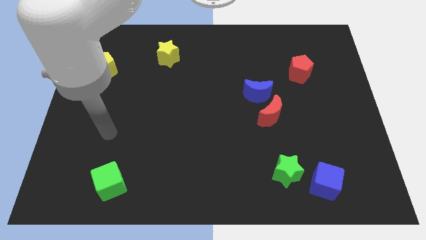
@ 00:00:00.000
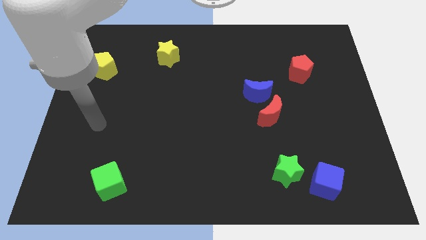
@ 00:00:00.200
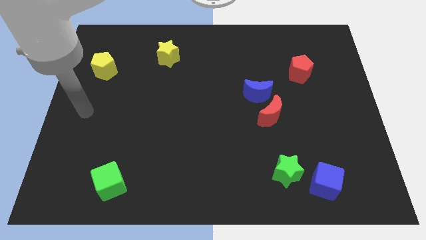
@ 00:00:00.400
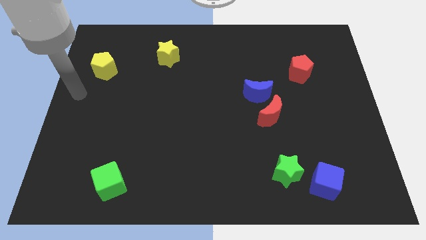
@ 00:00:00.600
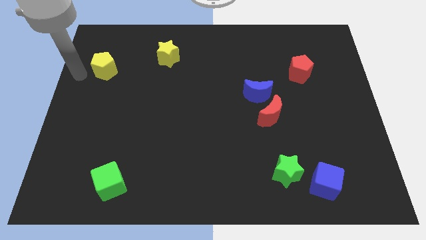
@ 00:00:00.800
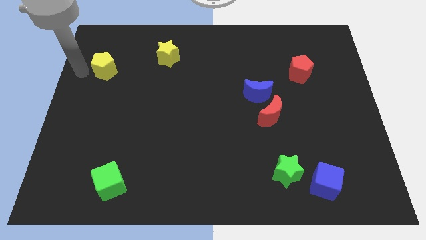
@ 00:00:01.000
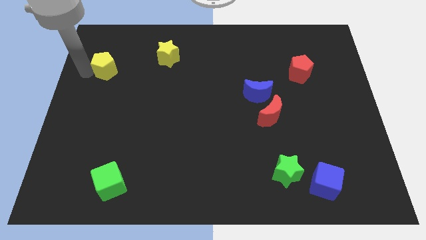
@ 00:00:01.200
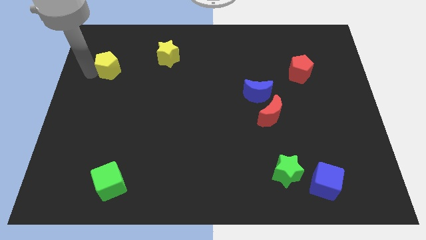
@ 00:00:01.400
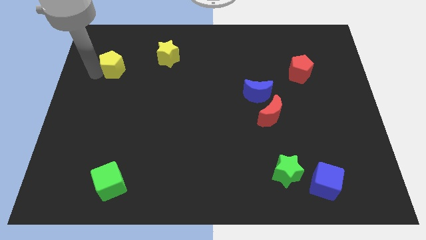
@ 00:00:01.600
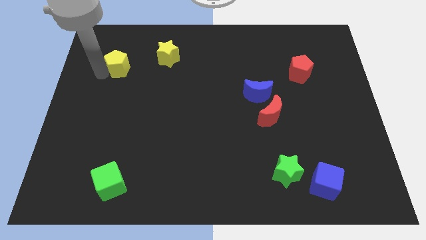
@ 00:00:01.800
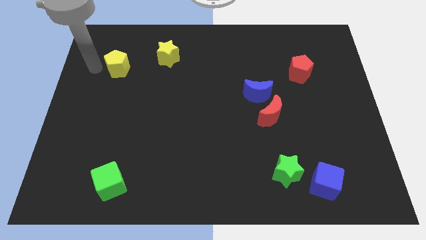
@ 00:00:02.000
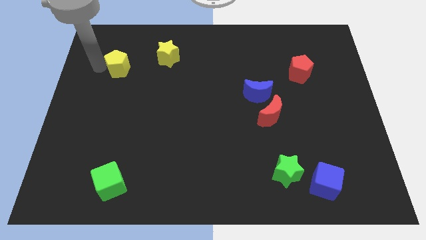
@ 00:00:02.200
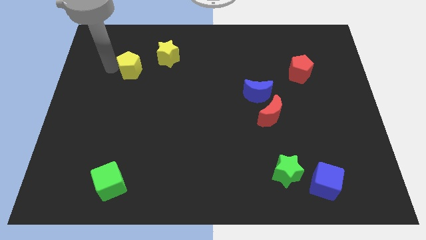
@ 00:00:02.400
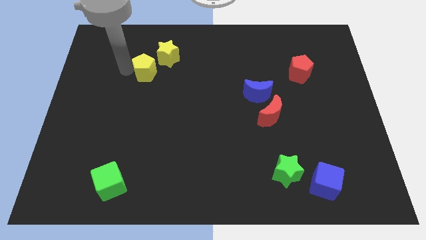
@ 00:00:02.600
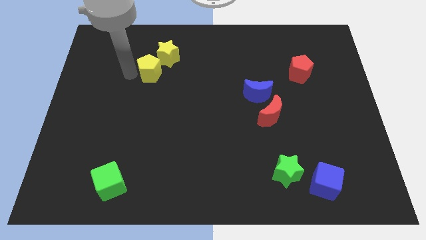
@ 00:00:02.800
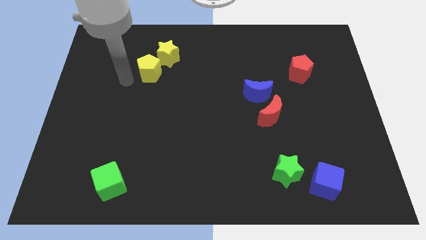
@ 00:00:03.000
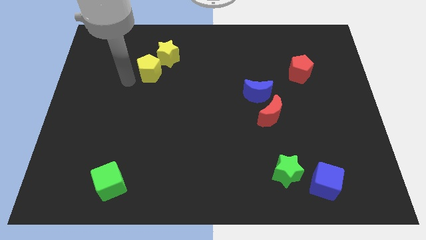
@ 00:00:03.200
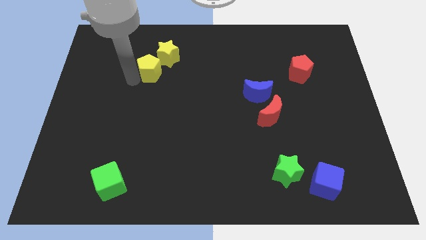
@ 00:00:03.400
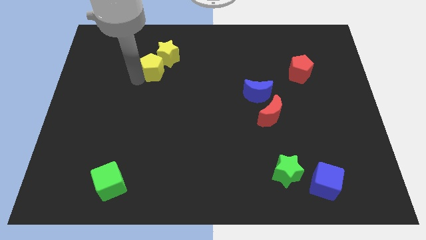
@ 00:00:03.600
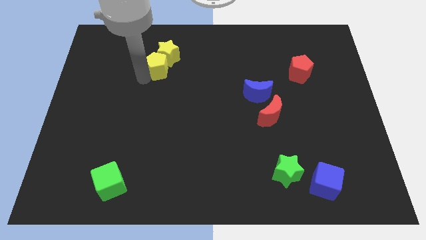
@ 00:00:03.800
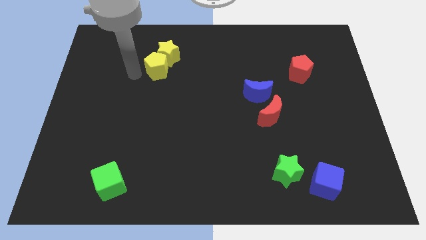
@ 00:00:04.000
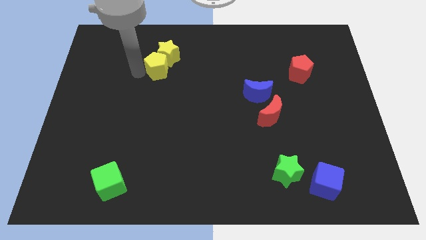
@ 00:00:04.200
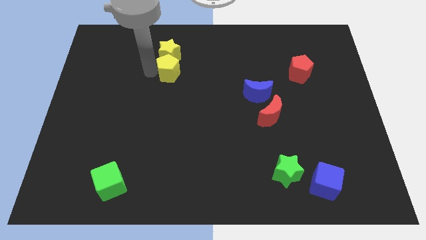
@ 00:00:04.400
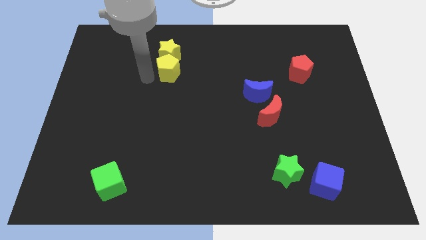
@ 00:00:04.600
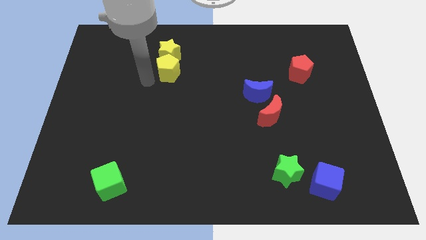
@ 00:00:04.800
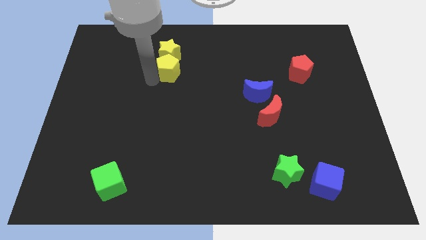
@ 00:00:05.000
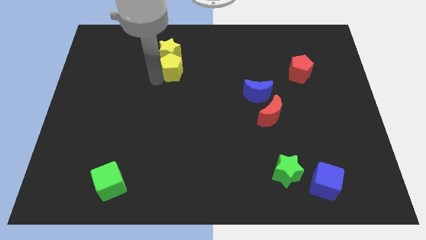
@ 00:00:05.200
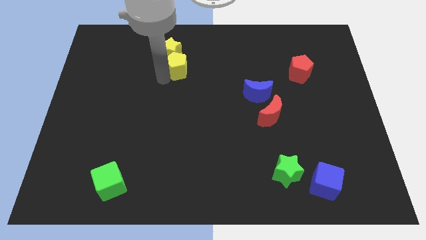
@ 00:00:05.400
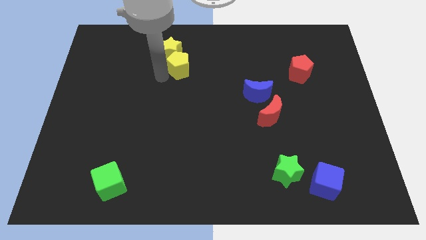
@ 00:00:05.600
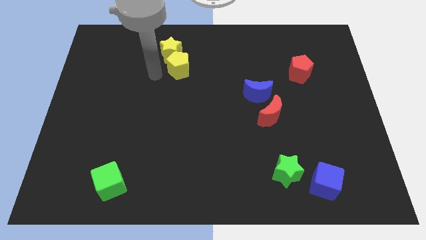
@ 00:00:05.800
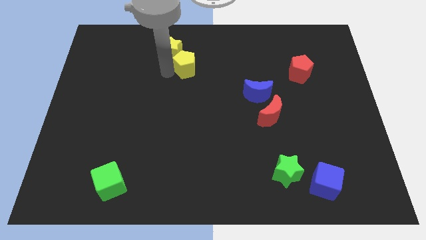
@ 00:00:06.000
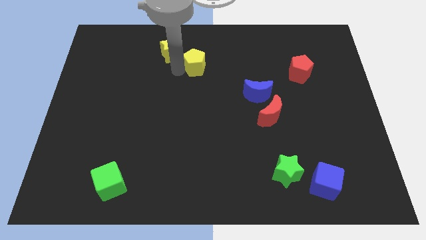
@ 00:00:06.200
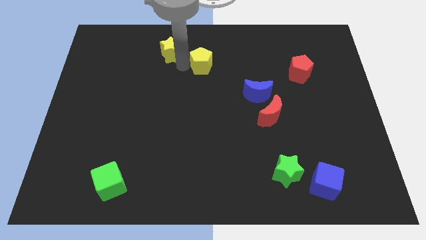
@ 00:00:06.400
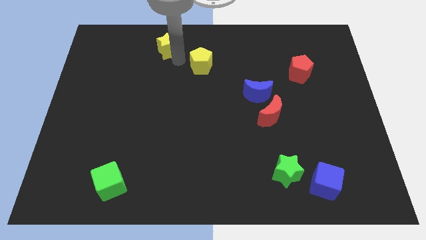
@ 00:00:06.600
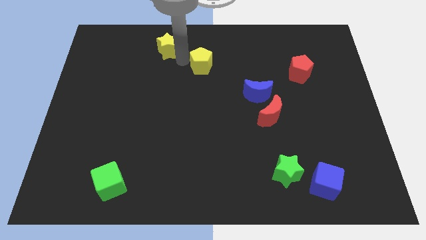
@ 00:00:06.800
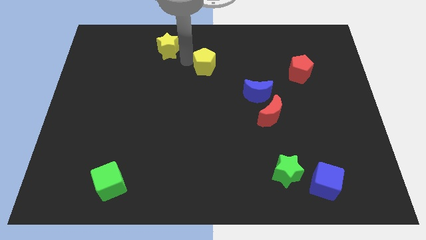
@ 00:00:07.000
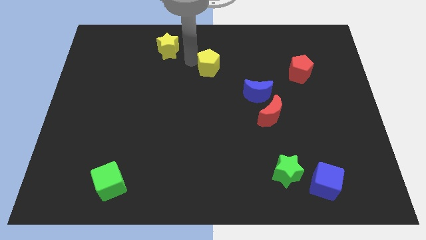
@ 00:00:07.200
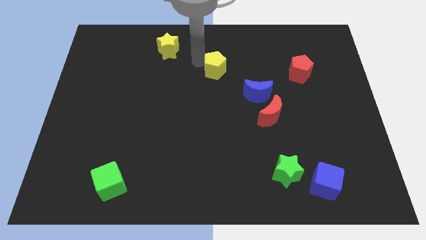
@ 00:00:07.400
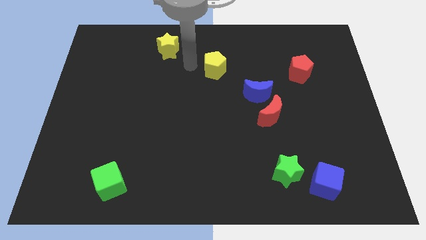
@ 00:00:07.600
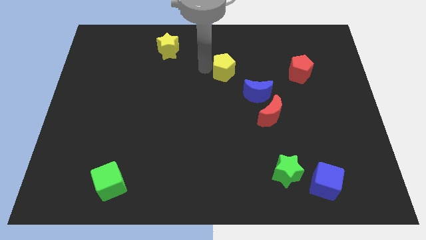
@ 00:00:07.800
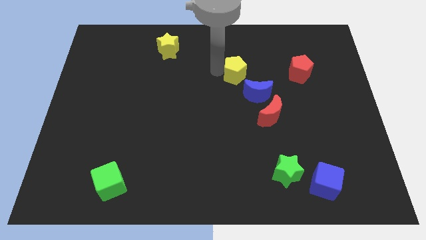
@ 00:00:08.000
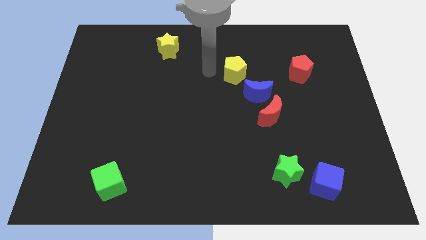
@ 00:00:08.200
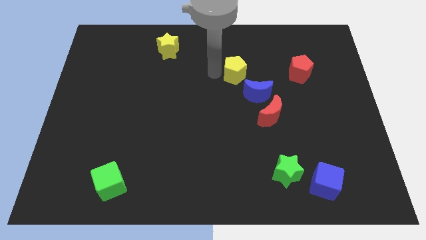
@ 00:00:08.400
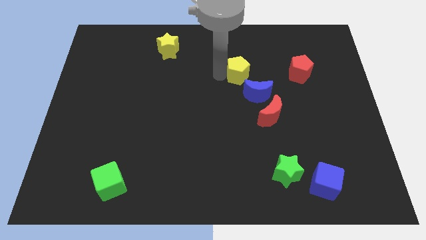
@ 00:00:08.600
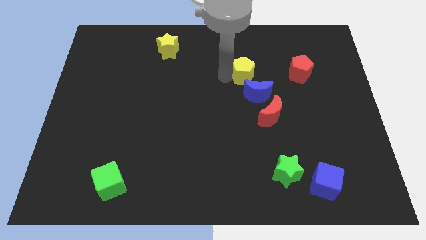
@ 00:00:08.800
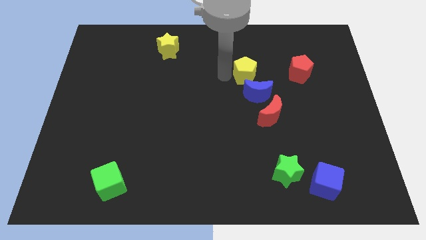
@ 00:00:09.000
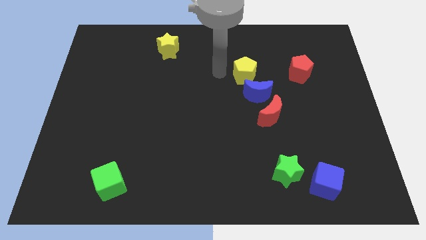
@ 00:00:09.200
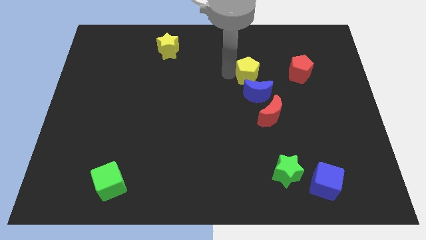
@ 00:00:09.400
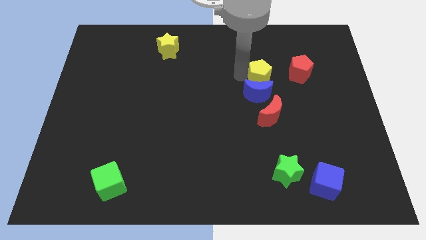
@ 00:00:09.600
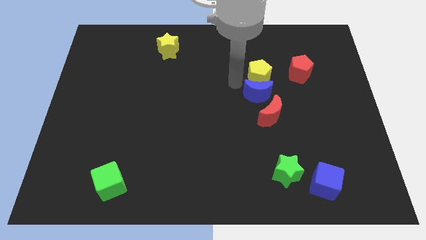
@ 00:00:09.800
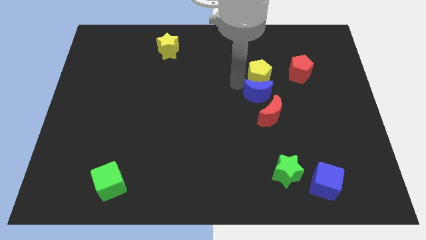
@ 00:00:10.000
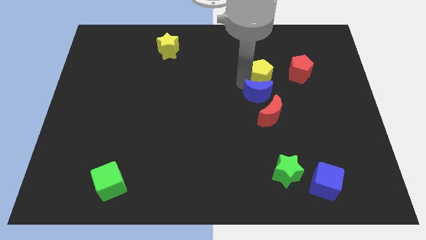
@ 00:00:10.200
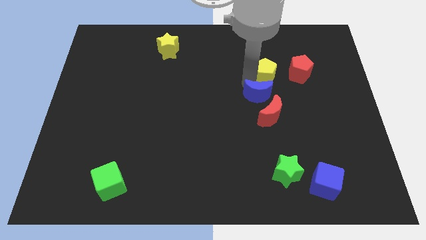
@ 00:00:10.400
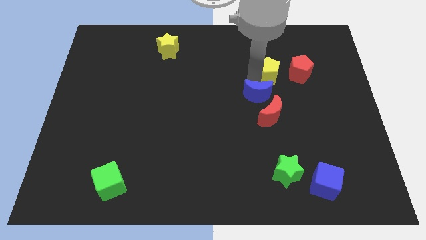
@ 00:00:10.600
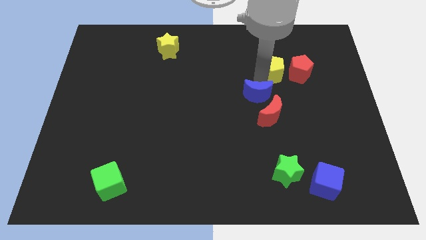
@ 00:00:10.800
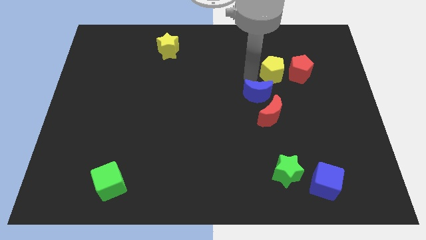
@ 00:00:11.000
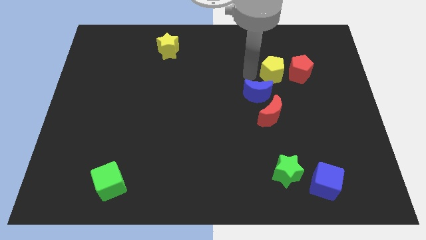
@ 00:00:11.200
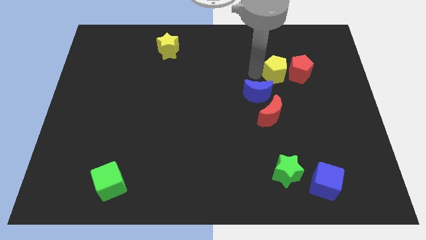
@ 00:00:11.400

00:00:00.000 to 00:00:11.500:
move the yellow pentagon close to the red pentagon

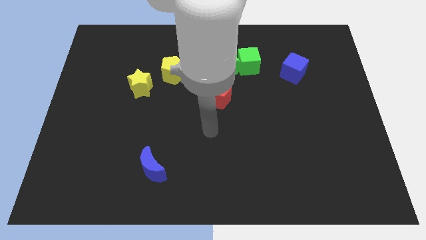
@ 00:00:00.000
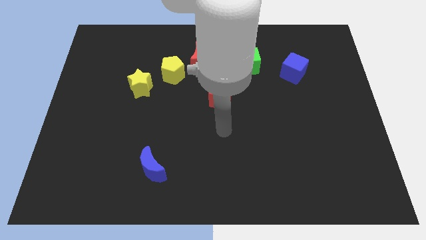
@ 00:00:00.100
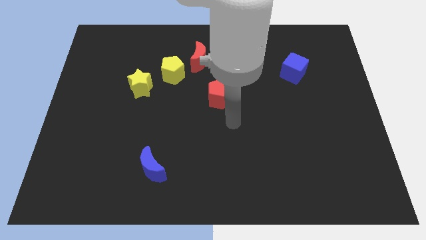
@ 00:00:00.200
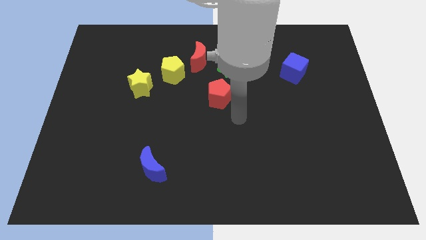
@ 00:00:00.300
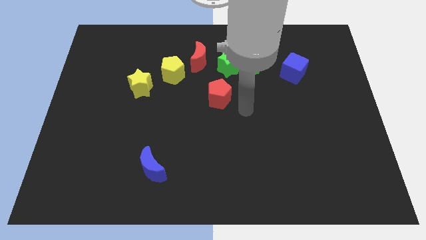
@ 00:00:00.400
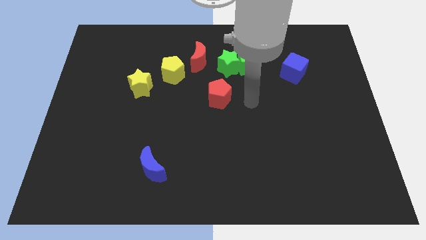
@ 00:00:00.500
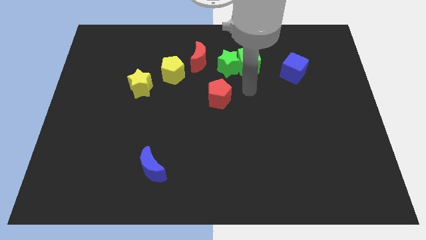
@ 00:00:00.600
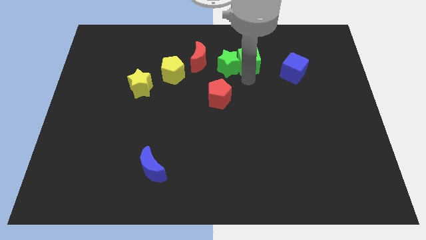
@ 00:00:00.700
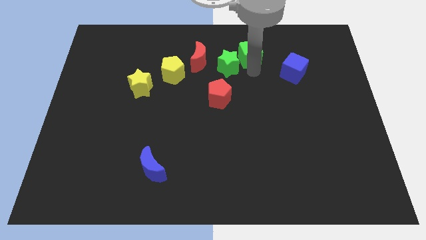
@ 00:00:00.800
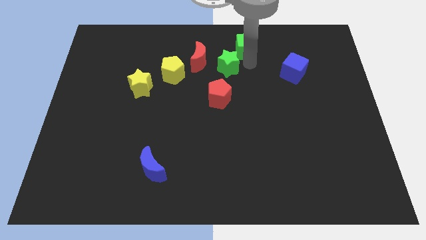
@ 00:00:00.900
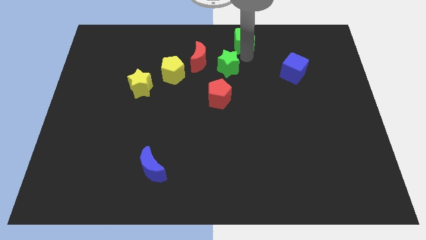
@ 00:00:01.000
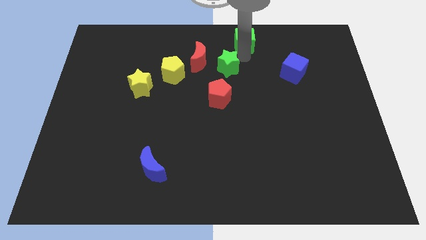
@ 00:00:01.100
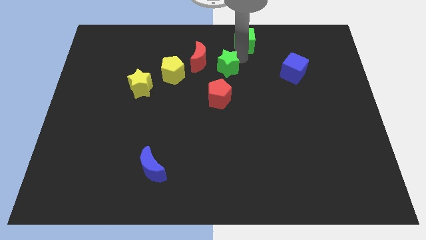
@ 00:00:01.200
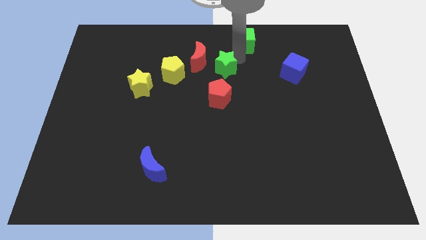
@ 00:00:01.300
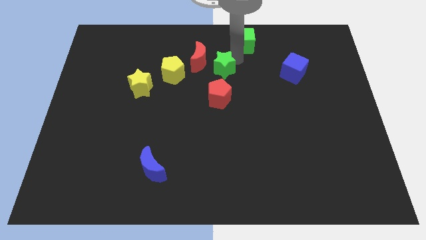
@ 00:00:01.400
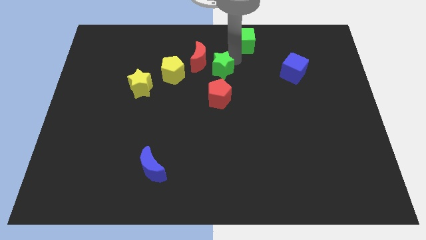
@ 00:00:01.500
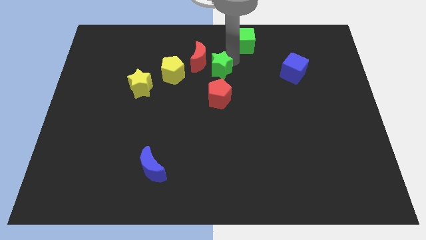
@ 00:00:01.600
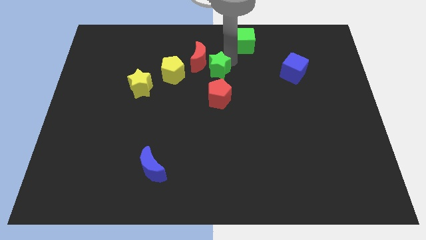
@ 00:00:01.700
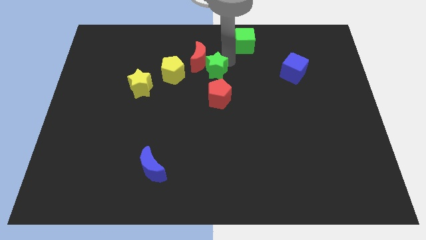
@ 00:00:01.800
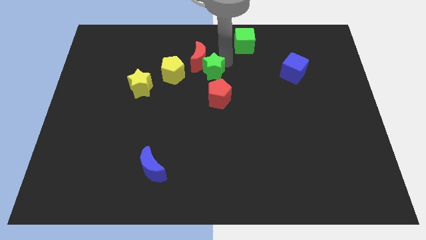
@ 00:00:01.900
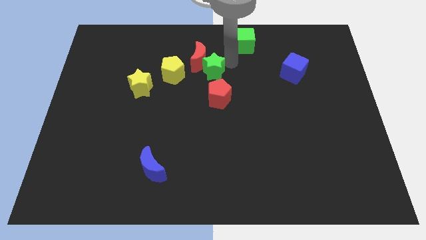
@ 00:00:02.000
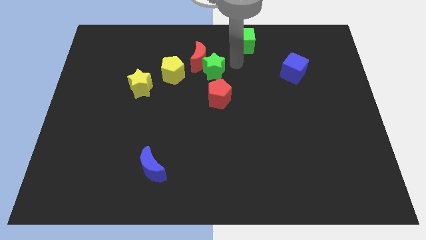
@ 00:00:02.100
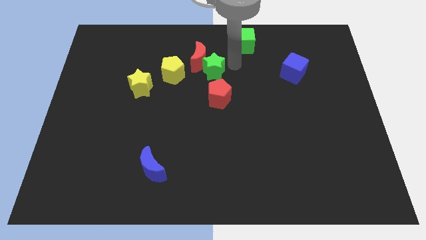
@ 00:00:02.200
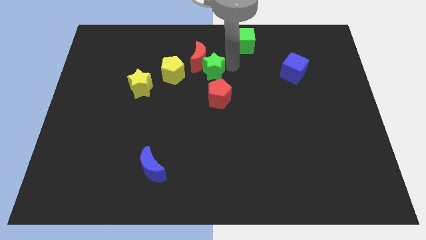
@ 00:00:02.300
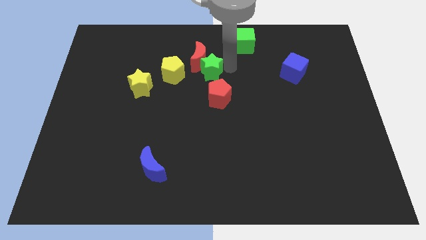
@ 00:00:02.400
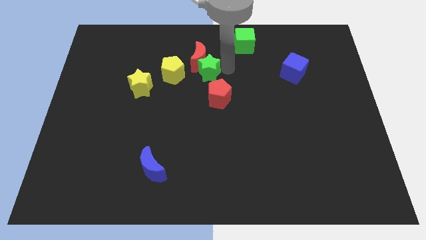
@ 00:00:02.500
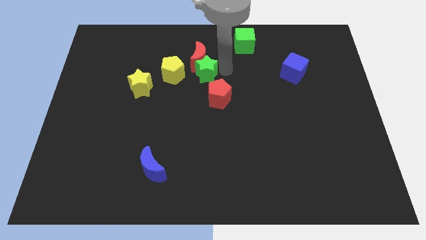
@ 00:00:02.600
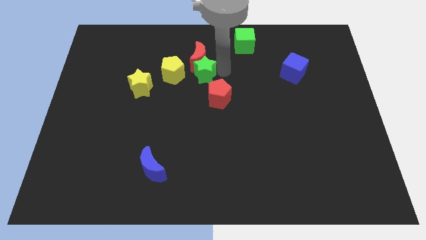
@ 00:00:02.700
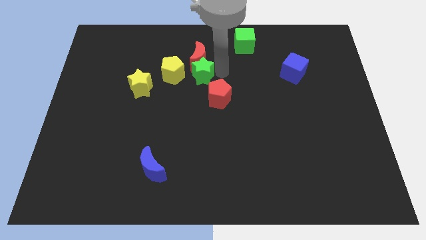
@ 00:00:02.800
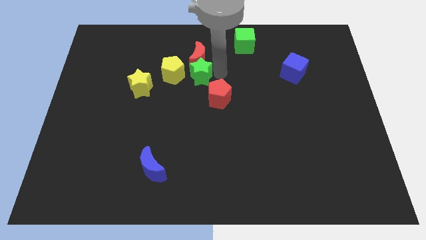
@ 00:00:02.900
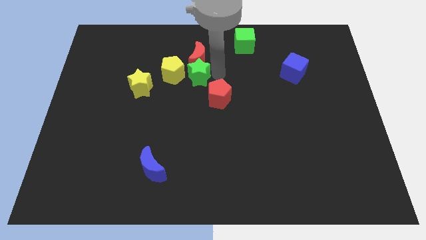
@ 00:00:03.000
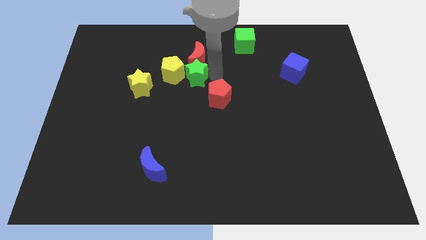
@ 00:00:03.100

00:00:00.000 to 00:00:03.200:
move the green star close to the yellow pentagon
